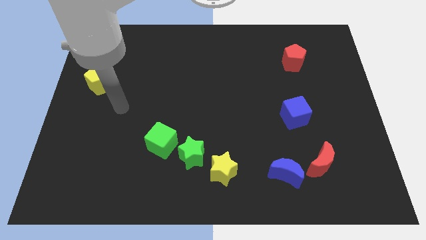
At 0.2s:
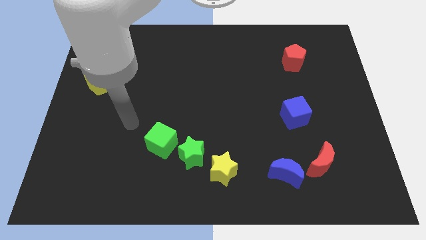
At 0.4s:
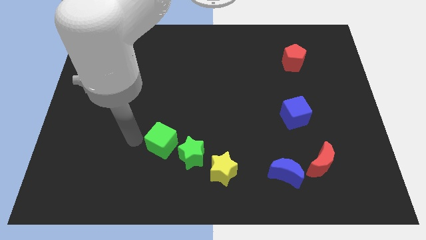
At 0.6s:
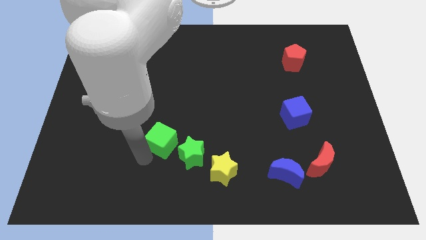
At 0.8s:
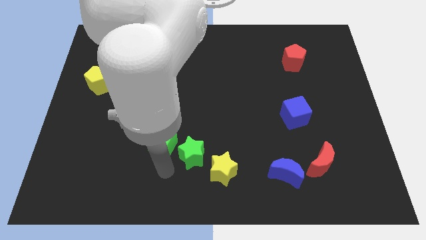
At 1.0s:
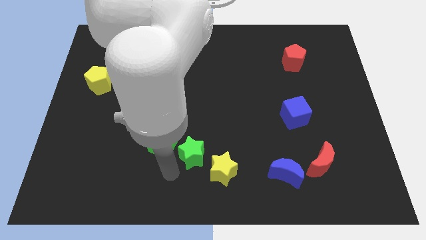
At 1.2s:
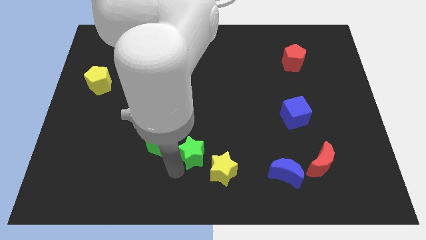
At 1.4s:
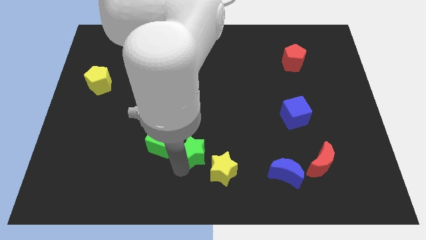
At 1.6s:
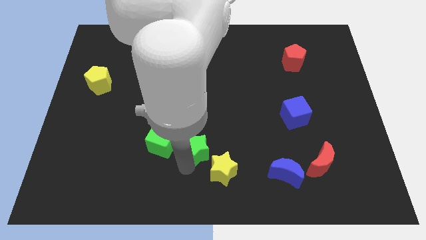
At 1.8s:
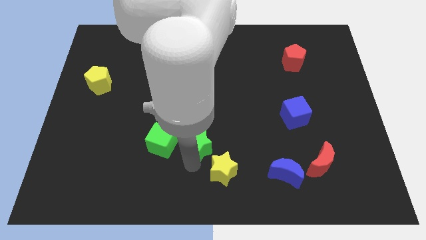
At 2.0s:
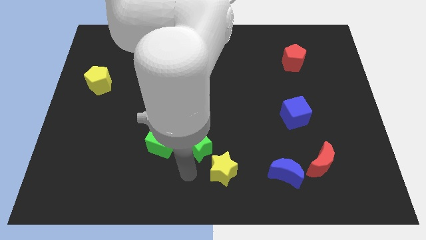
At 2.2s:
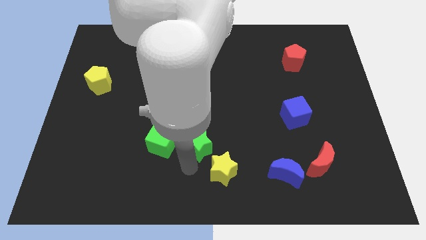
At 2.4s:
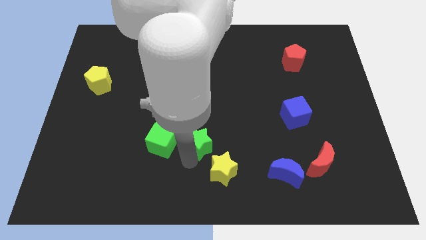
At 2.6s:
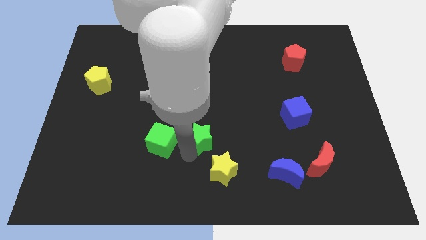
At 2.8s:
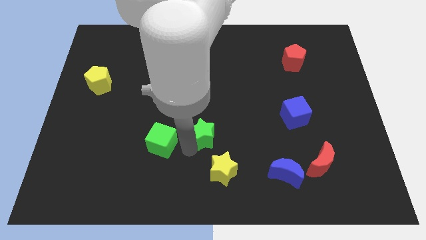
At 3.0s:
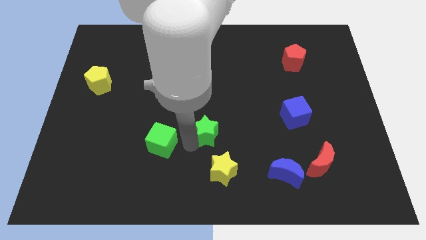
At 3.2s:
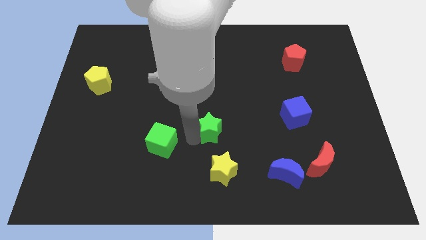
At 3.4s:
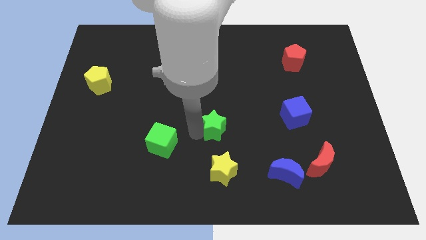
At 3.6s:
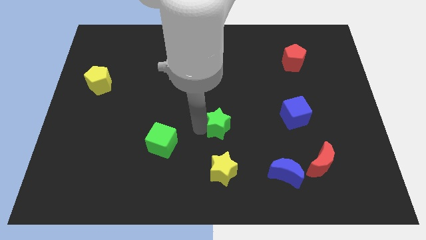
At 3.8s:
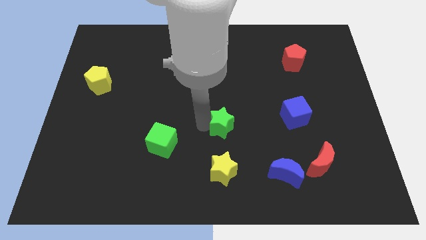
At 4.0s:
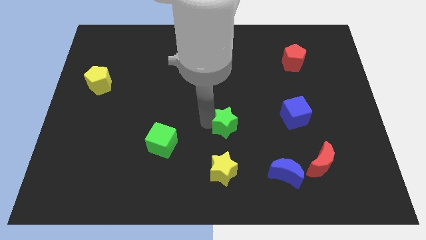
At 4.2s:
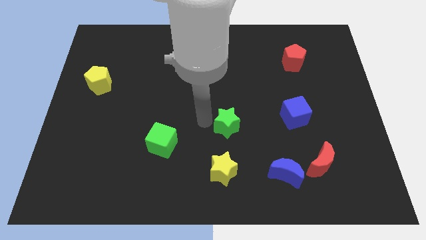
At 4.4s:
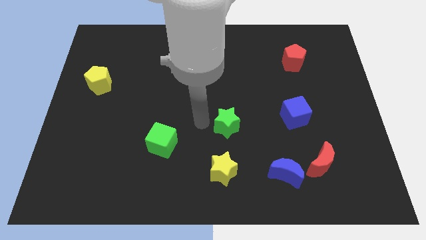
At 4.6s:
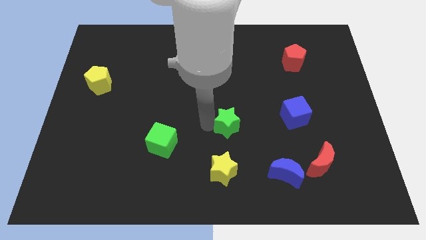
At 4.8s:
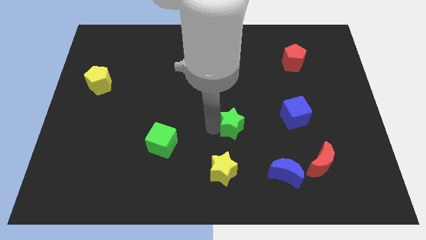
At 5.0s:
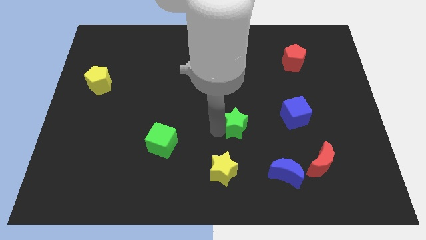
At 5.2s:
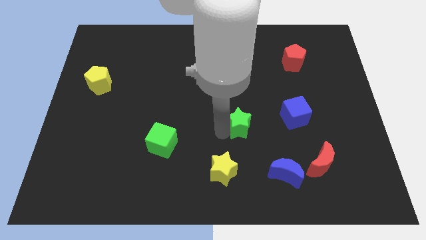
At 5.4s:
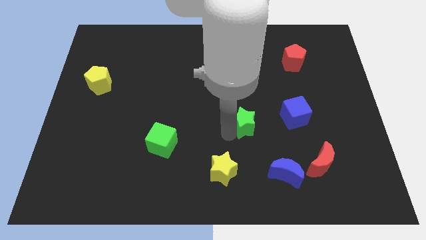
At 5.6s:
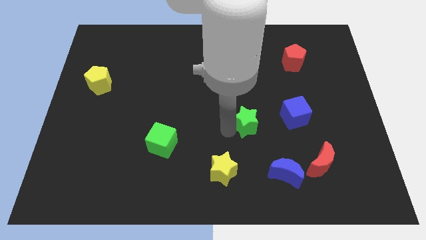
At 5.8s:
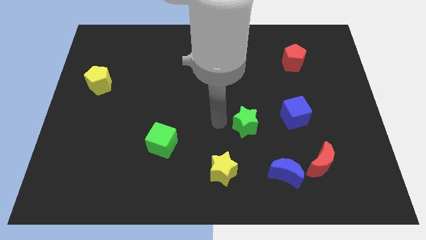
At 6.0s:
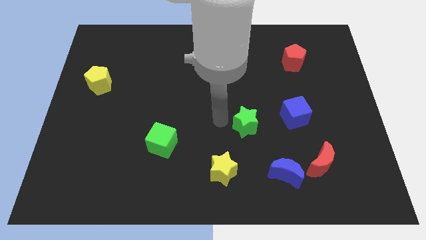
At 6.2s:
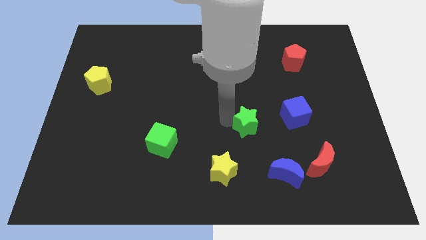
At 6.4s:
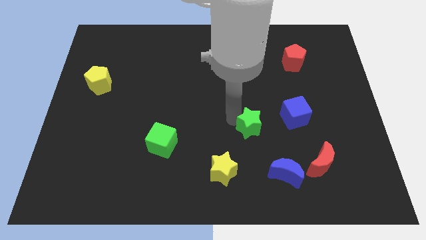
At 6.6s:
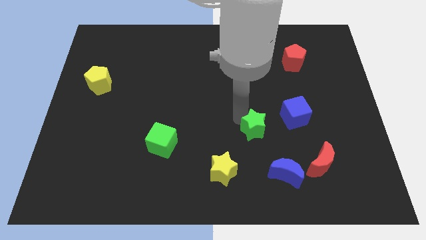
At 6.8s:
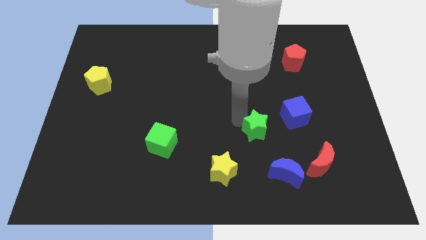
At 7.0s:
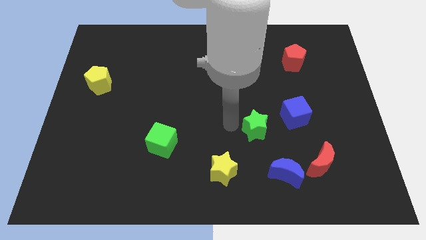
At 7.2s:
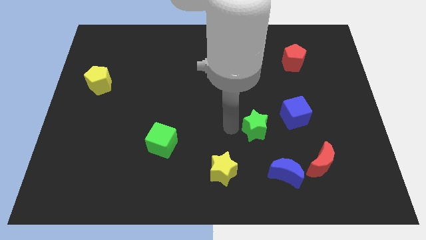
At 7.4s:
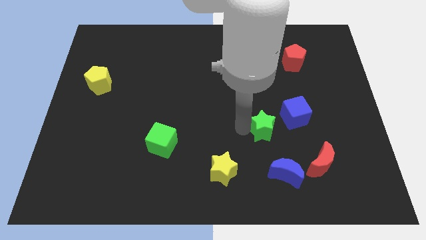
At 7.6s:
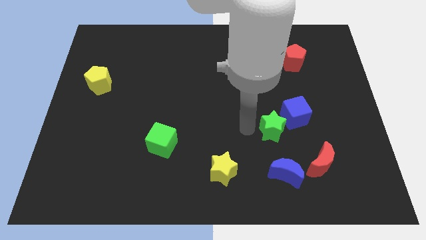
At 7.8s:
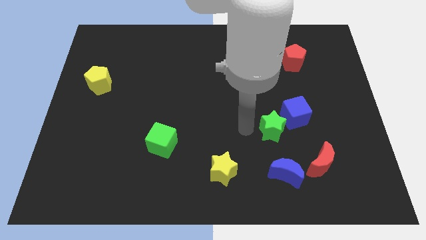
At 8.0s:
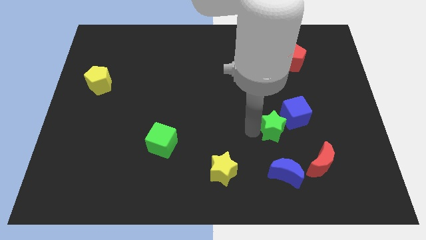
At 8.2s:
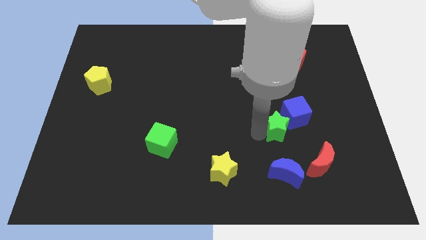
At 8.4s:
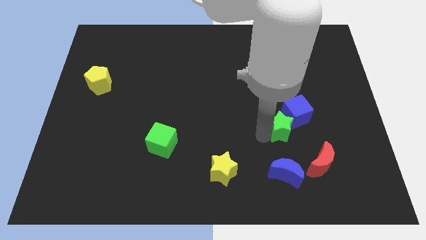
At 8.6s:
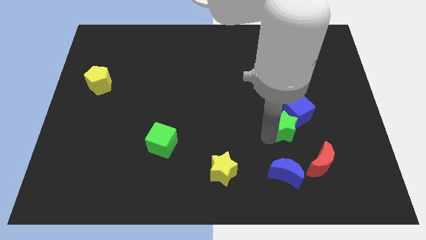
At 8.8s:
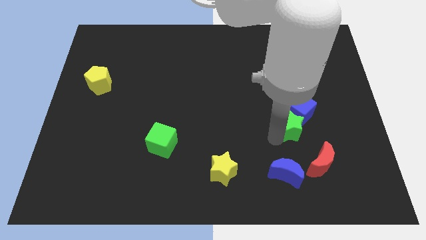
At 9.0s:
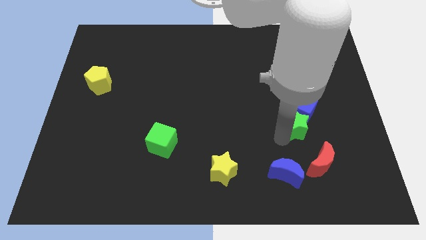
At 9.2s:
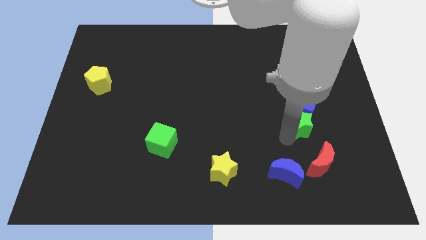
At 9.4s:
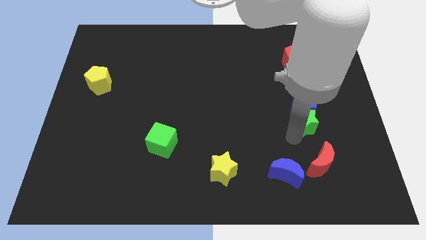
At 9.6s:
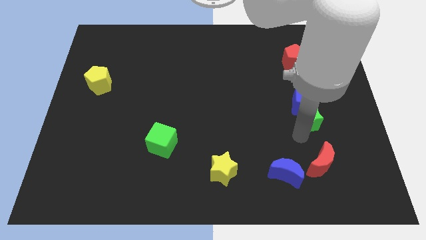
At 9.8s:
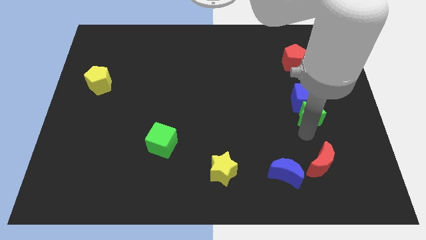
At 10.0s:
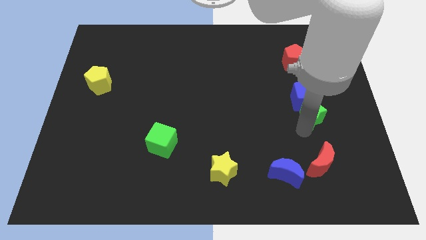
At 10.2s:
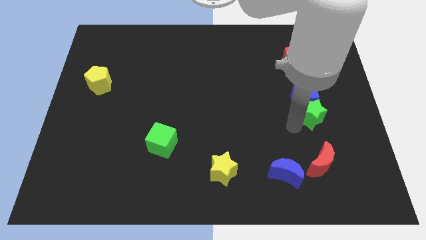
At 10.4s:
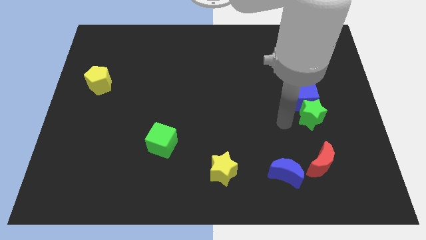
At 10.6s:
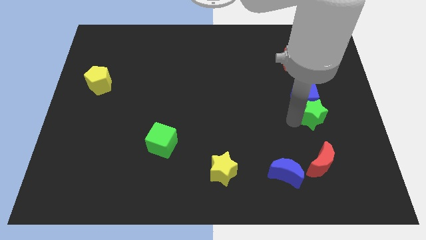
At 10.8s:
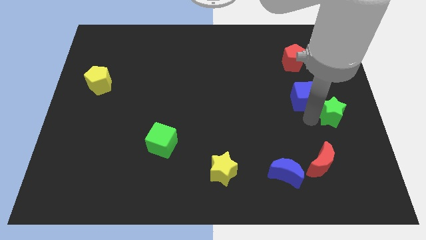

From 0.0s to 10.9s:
move the green star to the center right

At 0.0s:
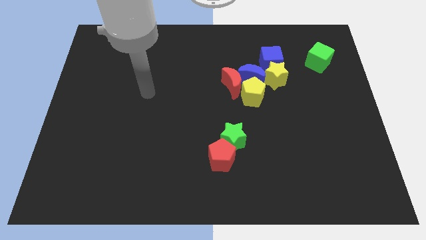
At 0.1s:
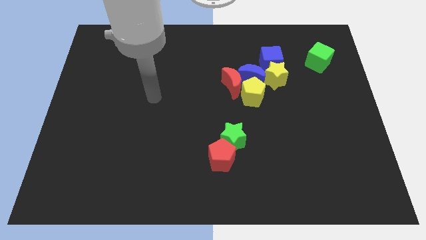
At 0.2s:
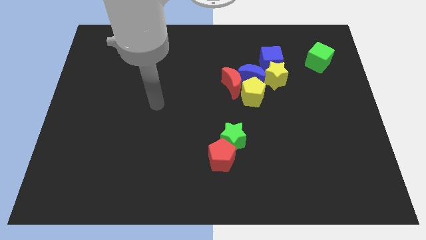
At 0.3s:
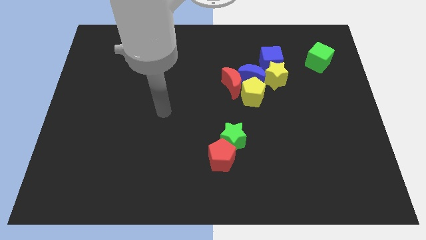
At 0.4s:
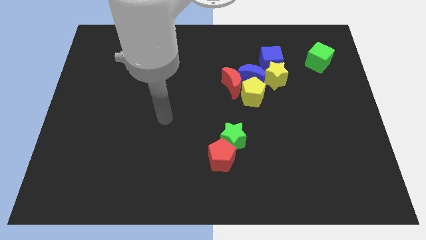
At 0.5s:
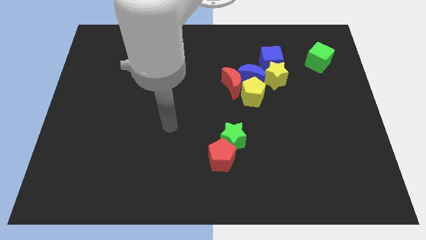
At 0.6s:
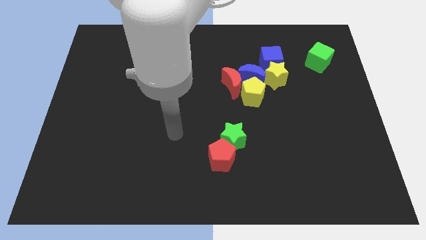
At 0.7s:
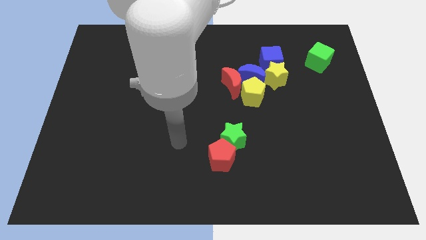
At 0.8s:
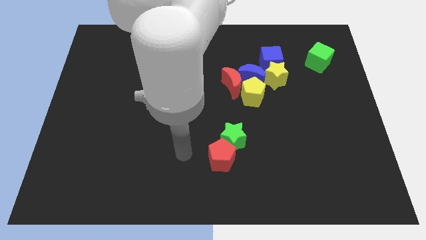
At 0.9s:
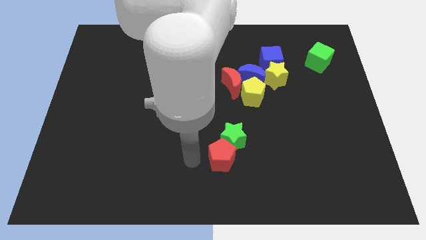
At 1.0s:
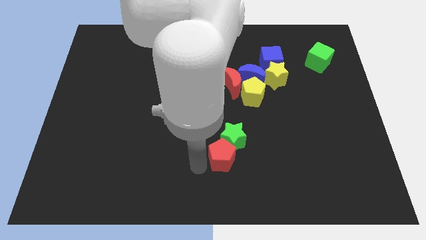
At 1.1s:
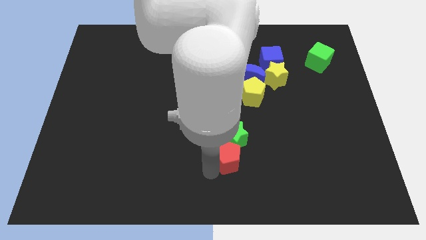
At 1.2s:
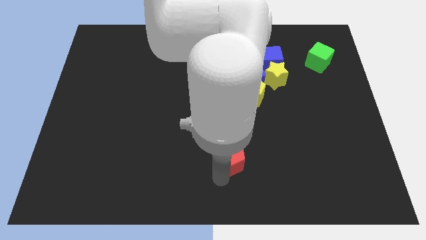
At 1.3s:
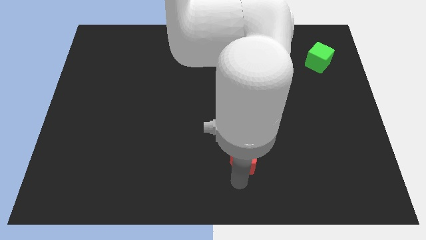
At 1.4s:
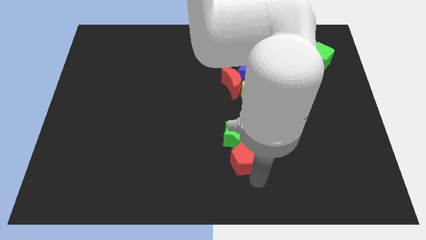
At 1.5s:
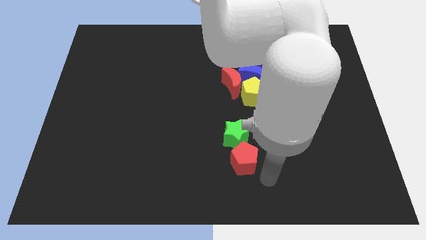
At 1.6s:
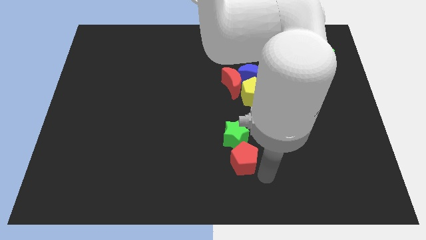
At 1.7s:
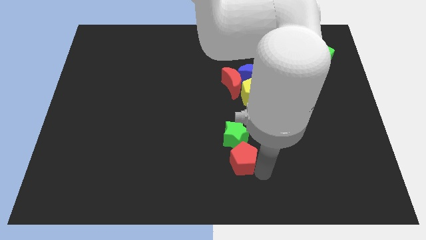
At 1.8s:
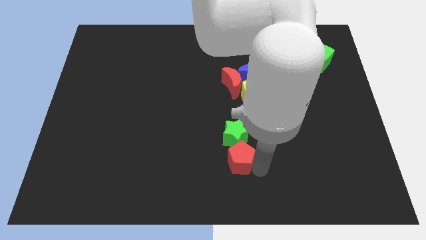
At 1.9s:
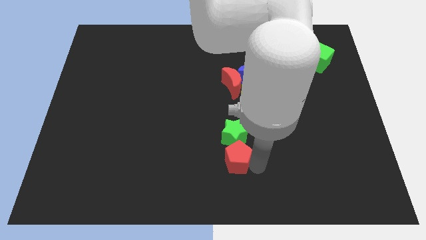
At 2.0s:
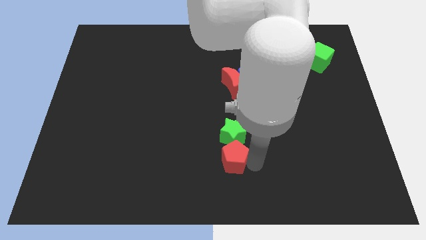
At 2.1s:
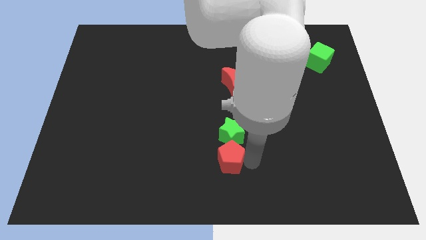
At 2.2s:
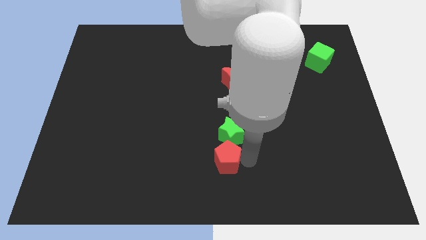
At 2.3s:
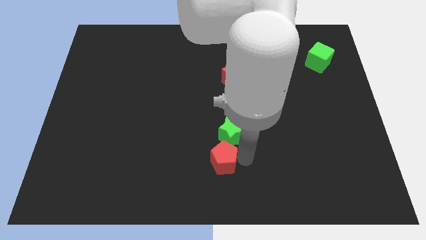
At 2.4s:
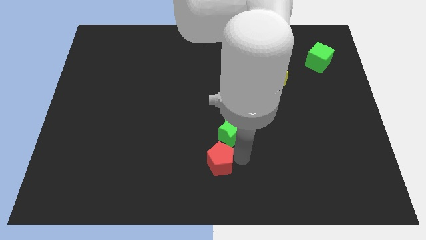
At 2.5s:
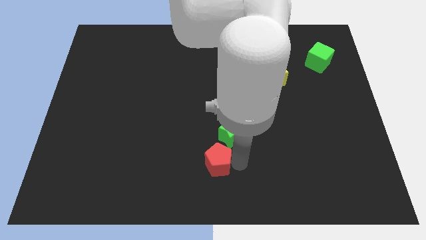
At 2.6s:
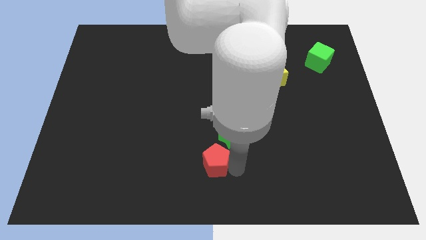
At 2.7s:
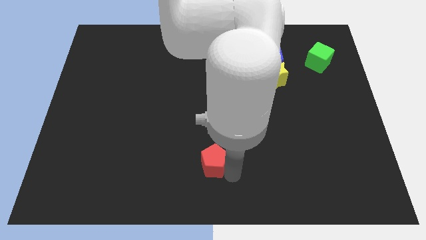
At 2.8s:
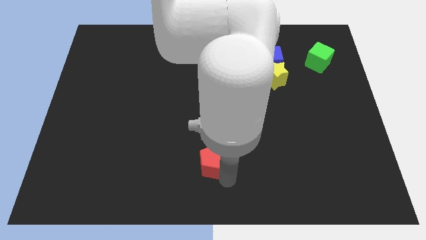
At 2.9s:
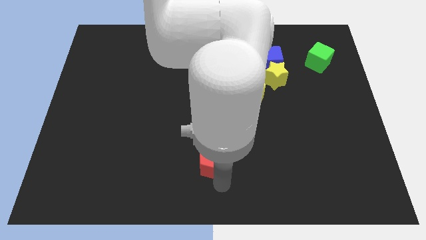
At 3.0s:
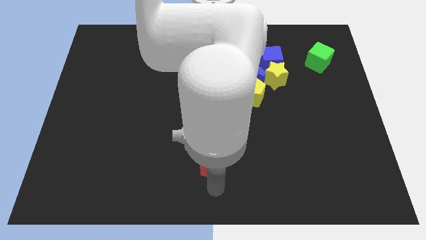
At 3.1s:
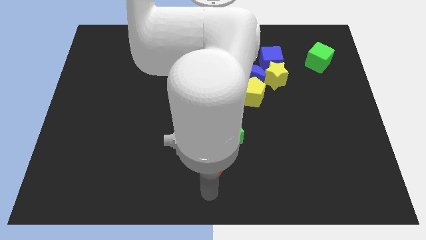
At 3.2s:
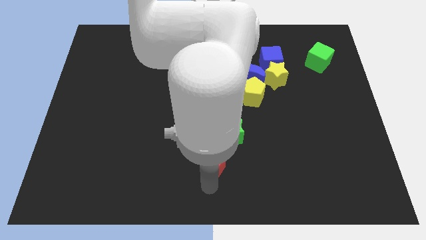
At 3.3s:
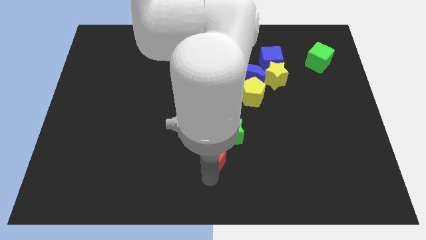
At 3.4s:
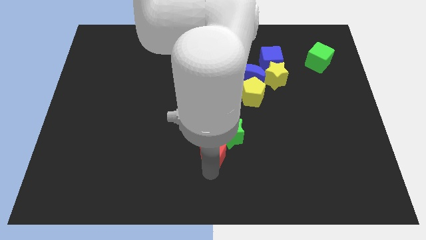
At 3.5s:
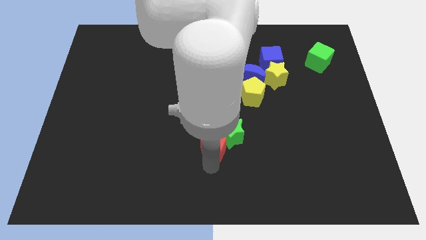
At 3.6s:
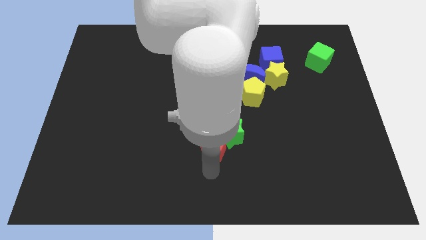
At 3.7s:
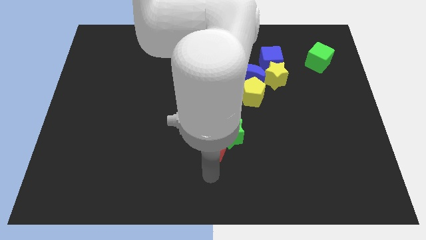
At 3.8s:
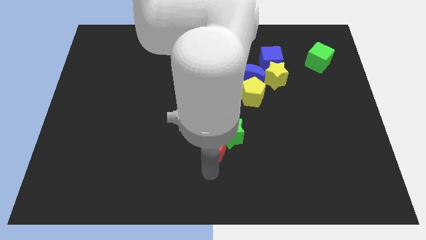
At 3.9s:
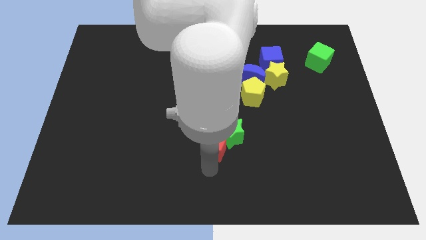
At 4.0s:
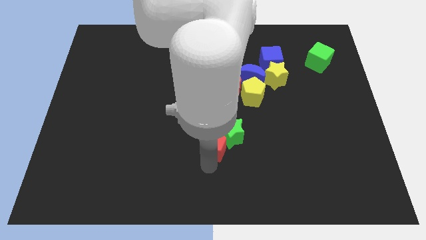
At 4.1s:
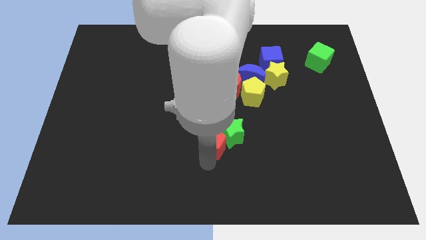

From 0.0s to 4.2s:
slide the red pentagon to the center
